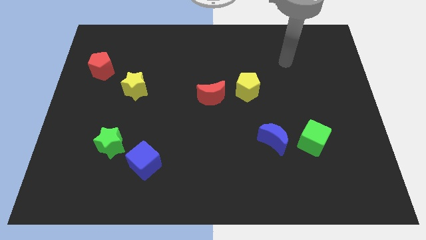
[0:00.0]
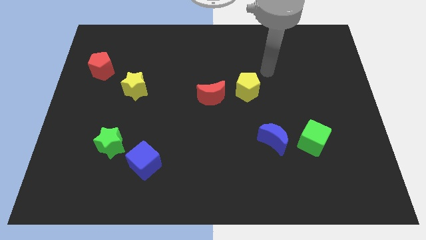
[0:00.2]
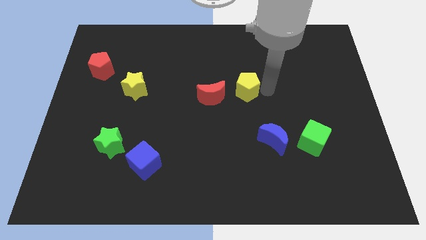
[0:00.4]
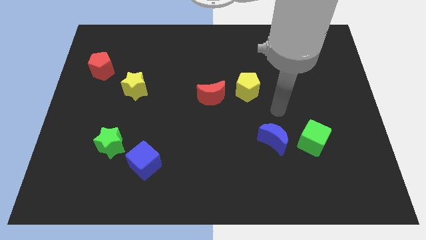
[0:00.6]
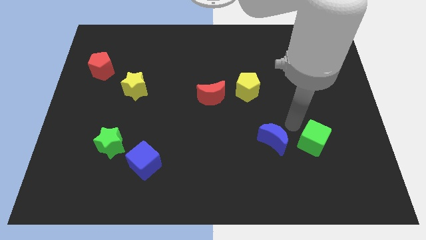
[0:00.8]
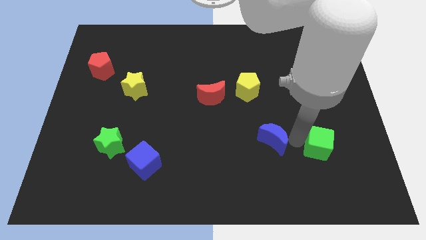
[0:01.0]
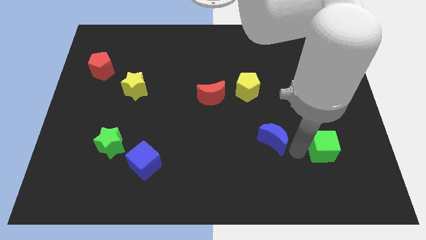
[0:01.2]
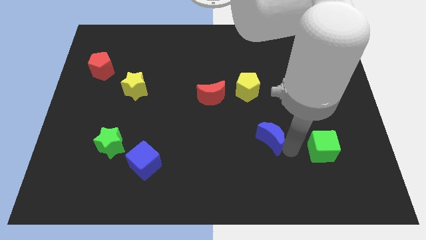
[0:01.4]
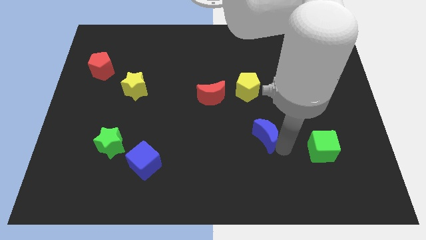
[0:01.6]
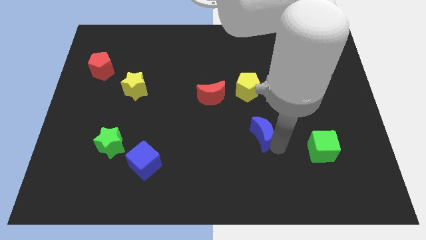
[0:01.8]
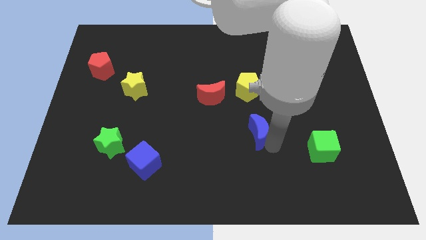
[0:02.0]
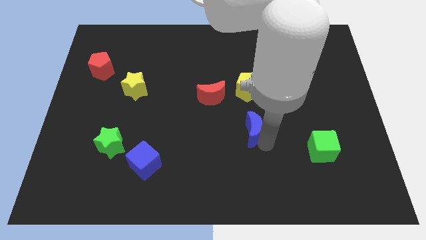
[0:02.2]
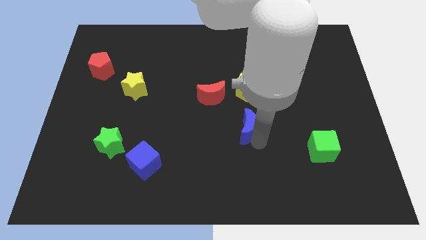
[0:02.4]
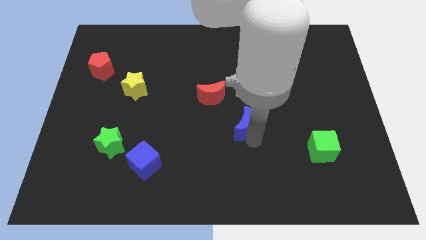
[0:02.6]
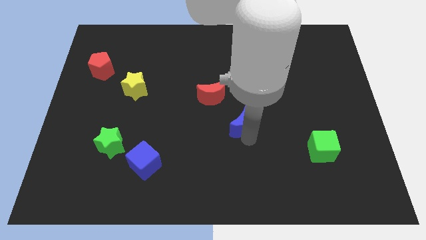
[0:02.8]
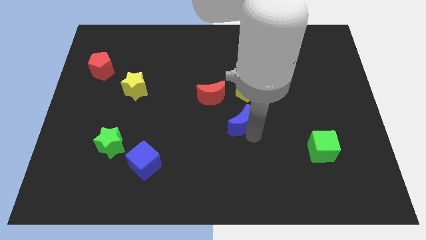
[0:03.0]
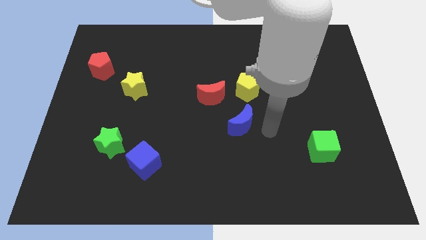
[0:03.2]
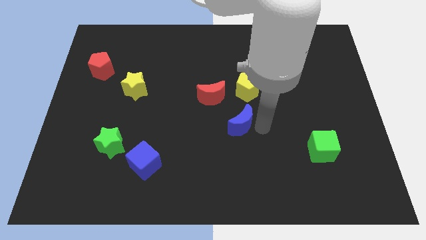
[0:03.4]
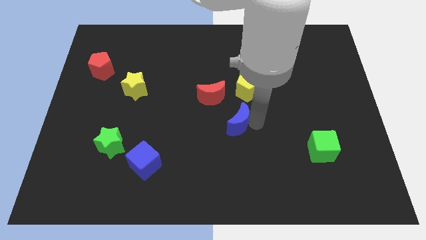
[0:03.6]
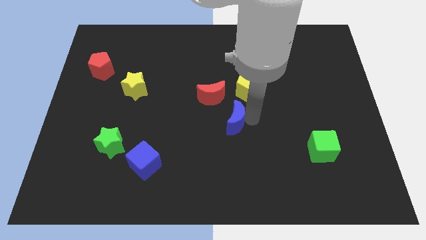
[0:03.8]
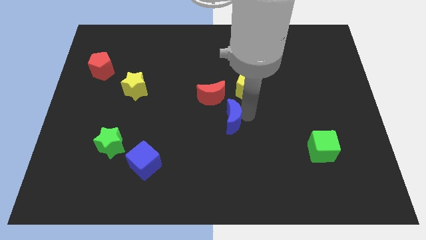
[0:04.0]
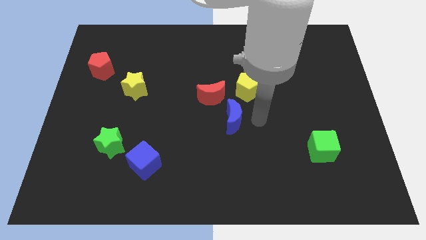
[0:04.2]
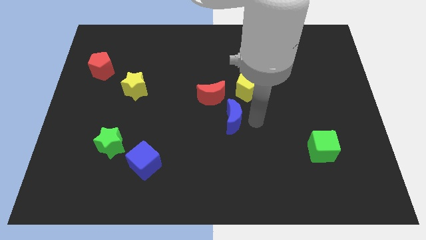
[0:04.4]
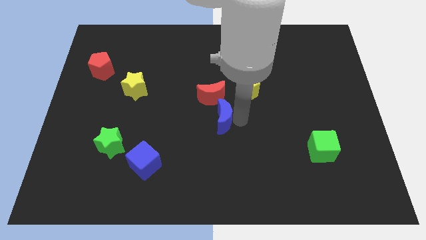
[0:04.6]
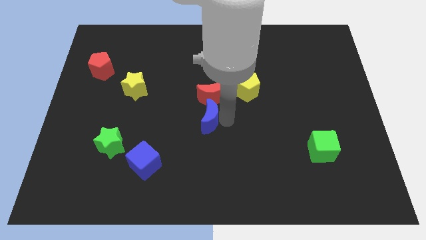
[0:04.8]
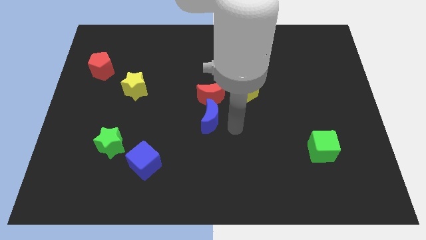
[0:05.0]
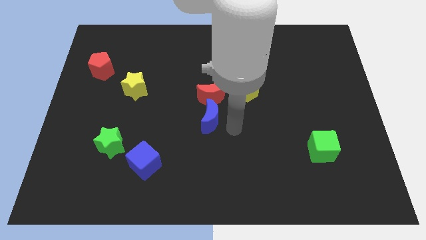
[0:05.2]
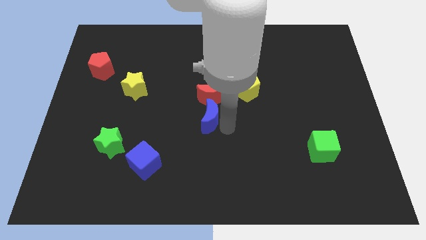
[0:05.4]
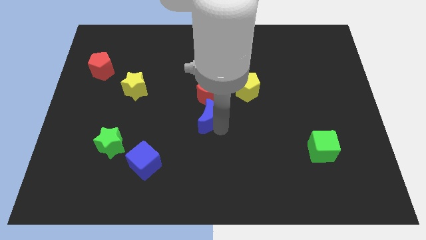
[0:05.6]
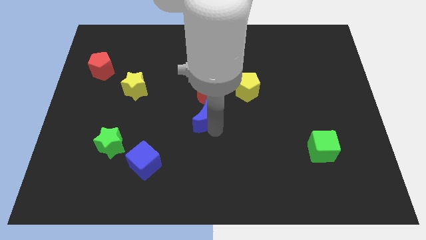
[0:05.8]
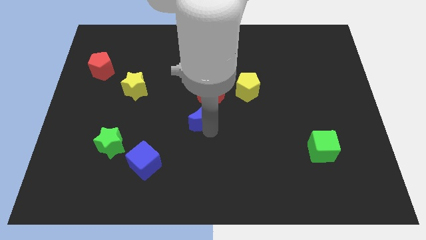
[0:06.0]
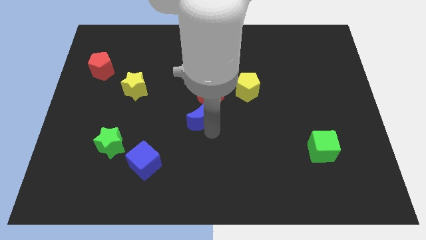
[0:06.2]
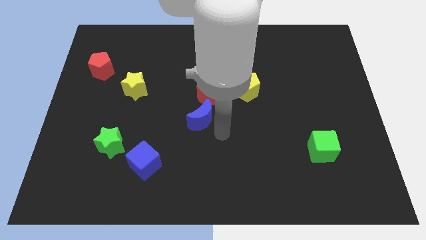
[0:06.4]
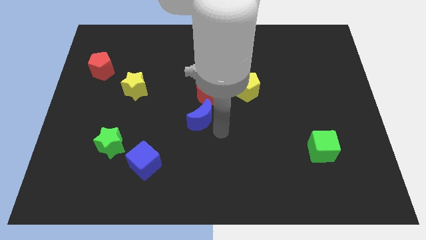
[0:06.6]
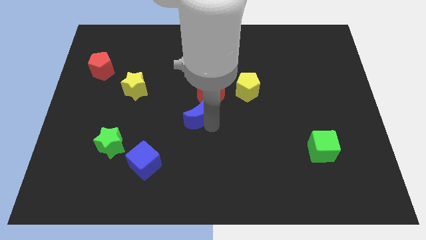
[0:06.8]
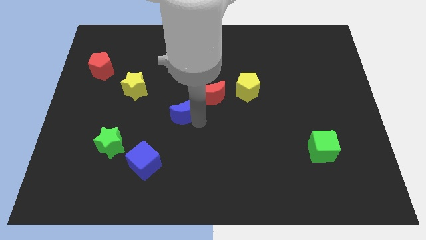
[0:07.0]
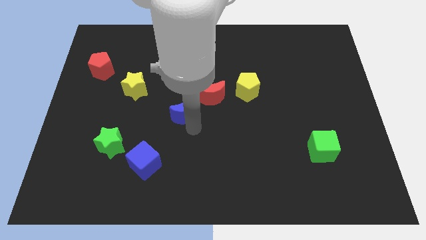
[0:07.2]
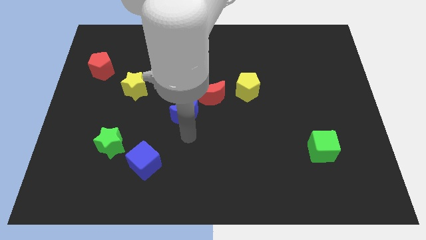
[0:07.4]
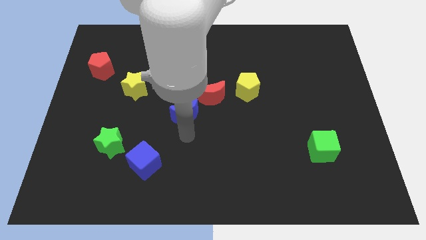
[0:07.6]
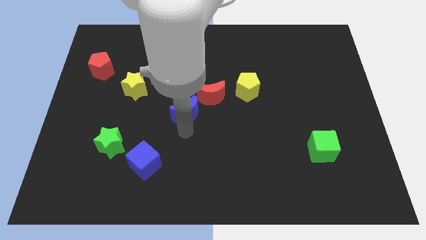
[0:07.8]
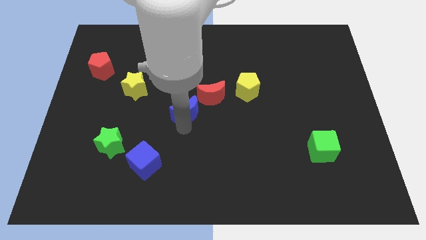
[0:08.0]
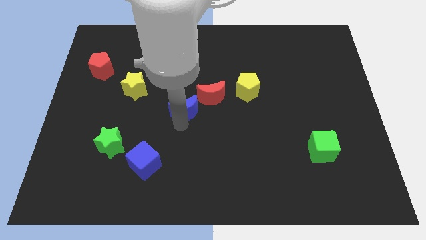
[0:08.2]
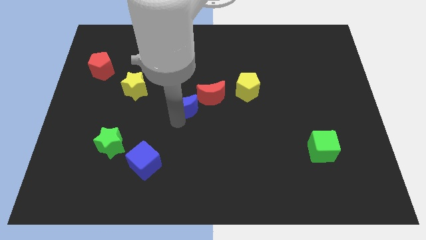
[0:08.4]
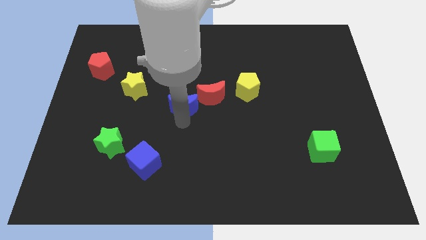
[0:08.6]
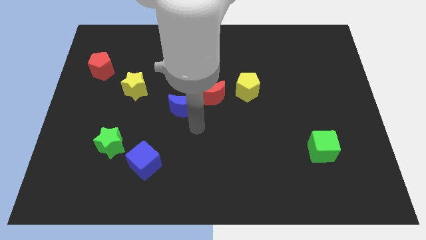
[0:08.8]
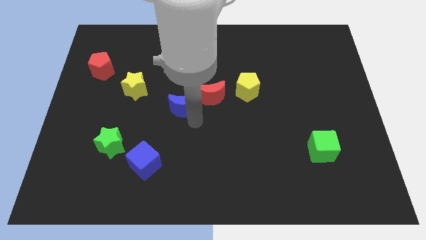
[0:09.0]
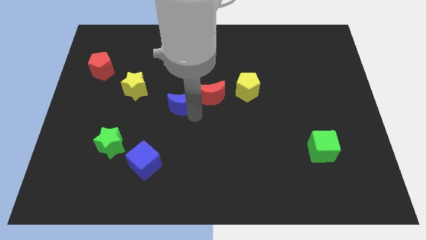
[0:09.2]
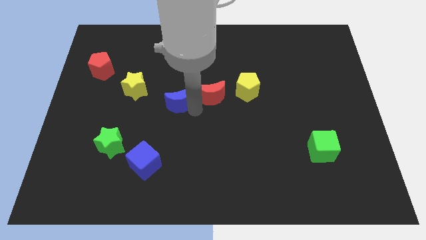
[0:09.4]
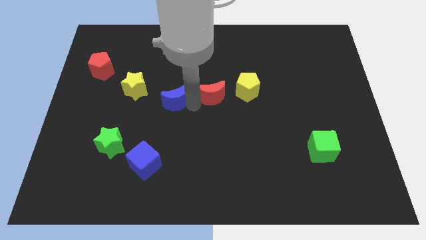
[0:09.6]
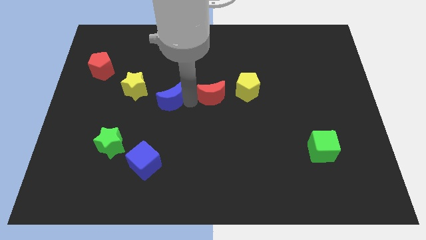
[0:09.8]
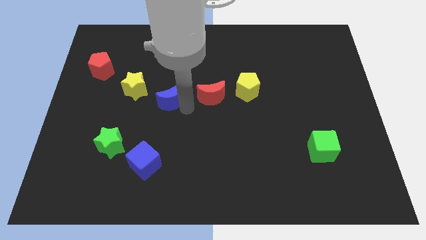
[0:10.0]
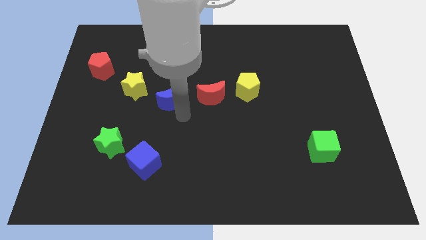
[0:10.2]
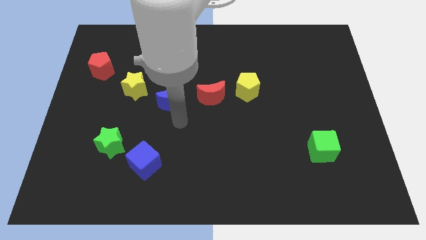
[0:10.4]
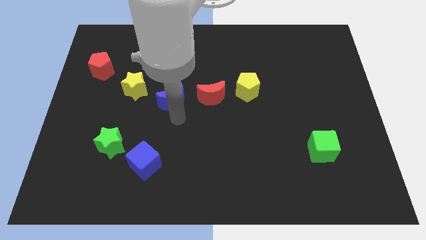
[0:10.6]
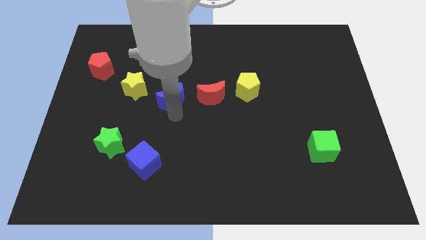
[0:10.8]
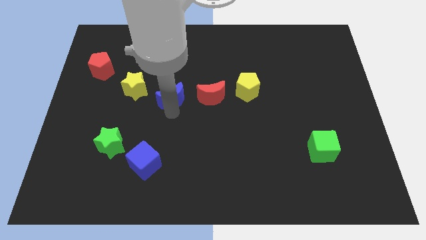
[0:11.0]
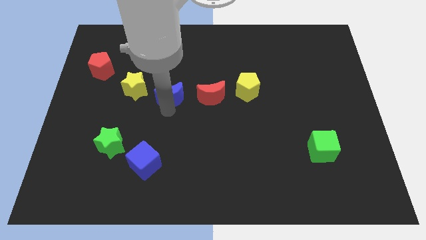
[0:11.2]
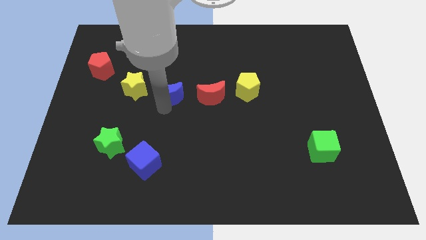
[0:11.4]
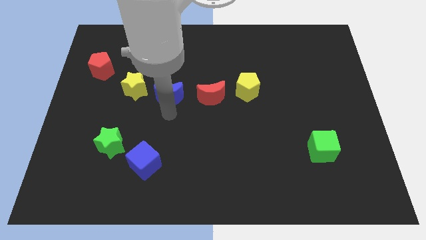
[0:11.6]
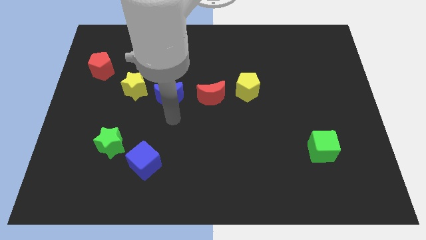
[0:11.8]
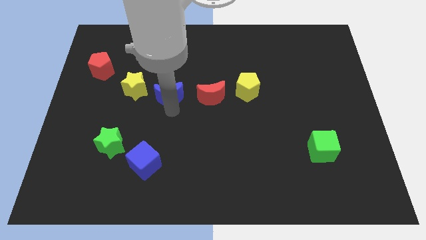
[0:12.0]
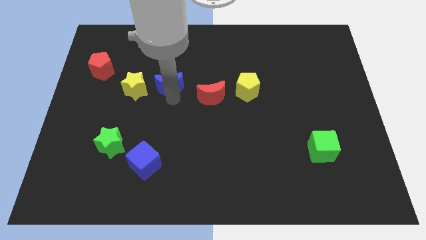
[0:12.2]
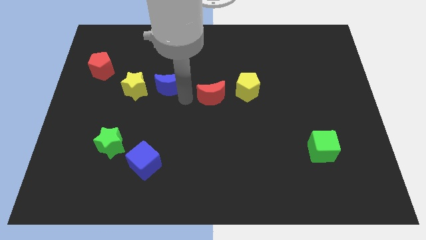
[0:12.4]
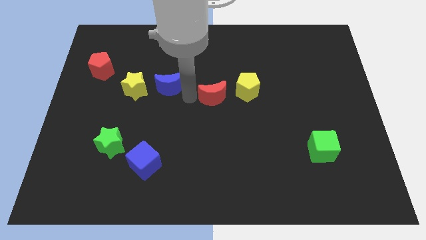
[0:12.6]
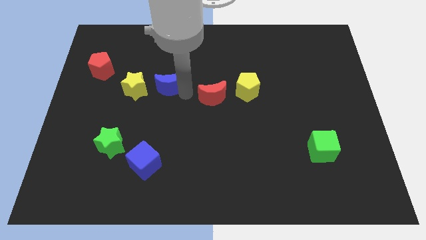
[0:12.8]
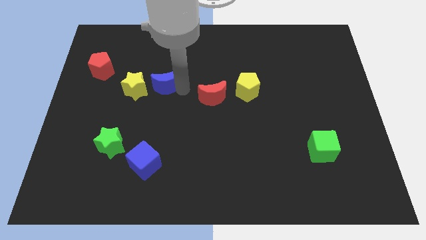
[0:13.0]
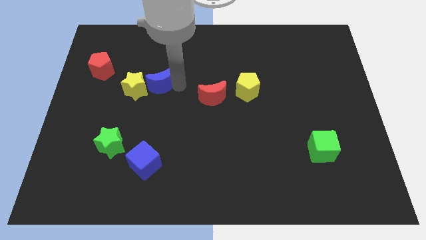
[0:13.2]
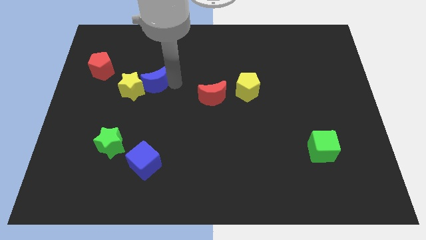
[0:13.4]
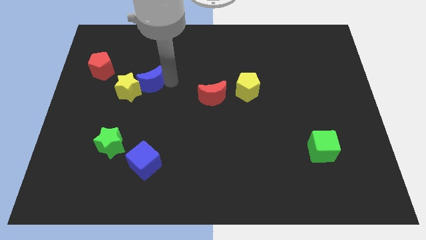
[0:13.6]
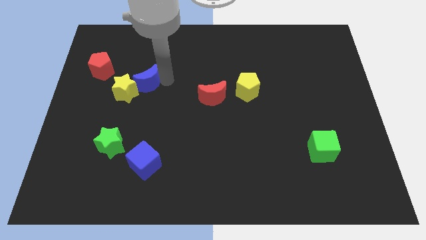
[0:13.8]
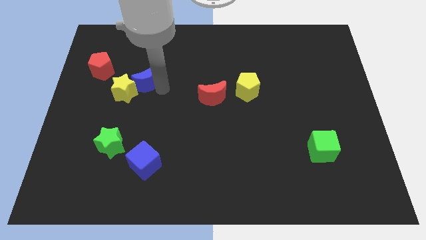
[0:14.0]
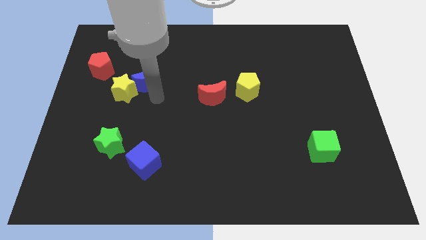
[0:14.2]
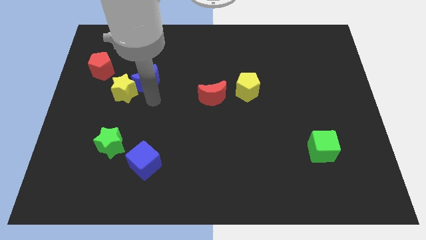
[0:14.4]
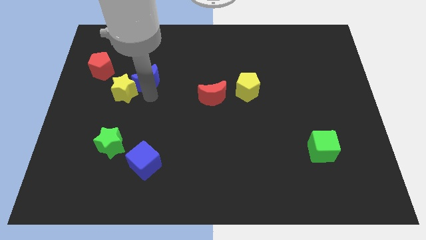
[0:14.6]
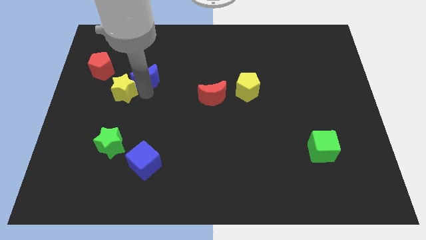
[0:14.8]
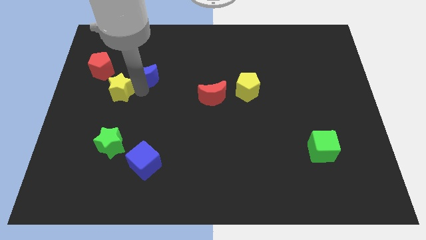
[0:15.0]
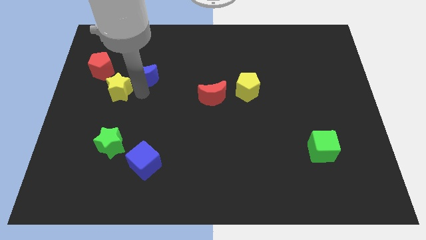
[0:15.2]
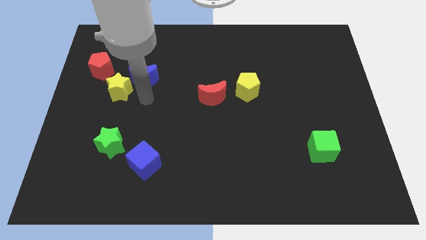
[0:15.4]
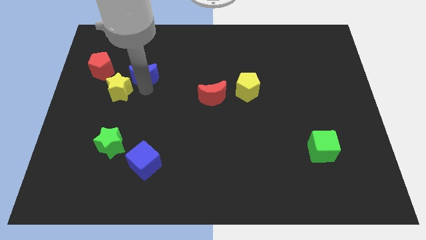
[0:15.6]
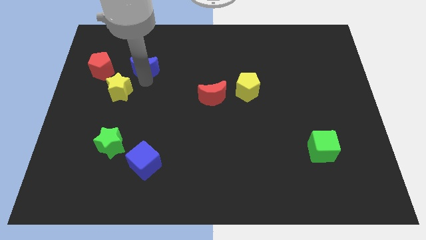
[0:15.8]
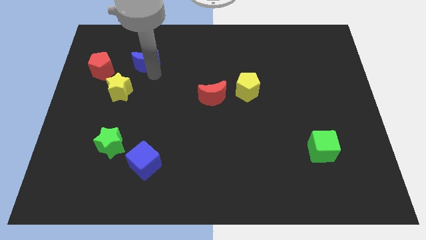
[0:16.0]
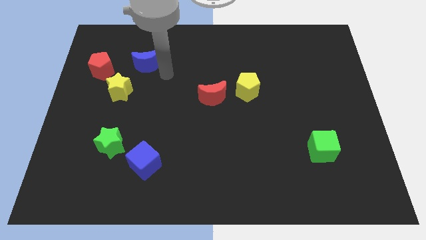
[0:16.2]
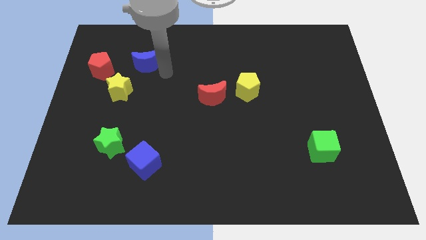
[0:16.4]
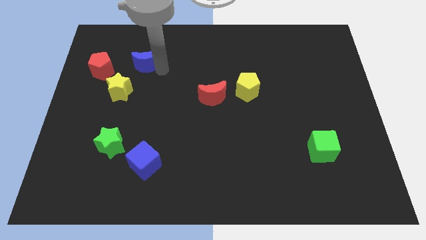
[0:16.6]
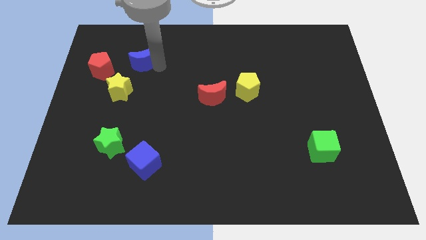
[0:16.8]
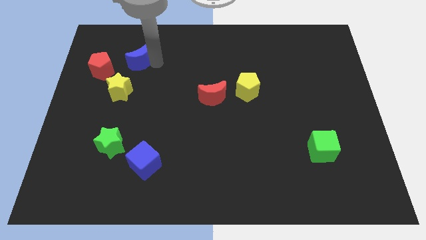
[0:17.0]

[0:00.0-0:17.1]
push the blue moon to the top right side of the red pentagon
